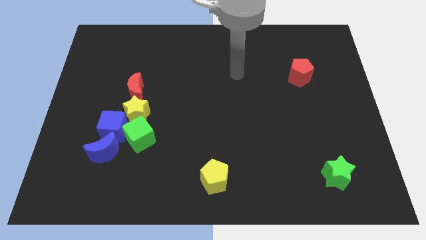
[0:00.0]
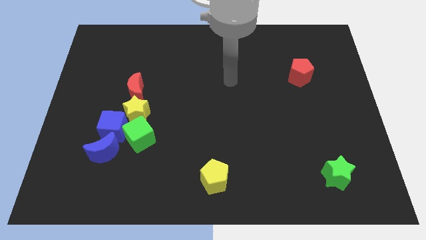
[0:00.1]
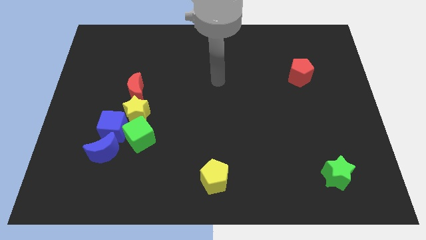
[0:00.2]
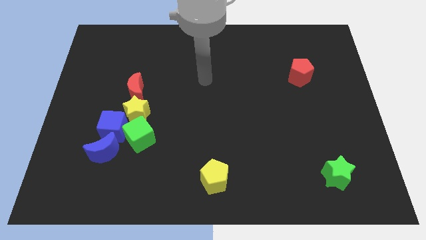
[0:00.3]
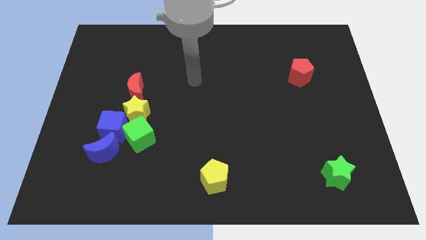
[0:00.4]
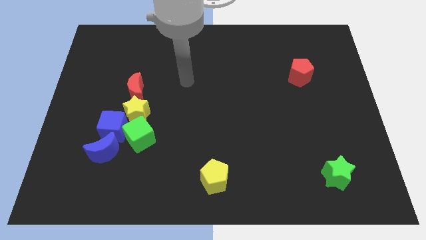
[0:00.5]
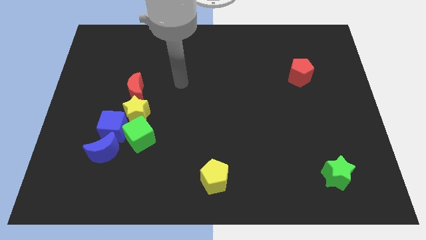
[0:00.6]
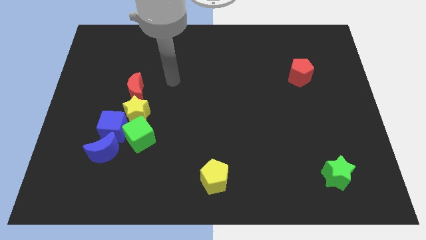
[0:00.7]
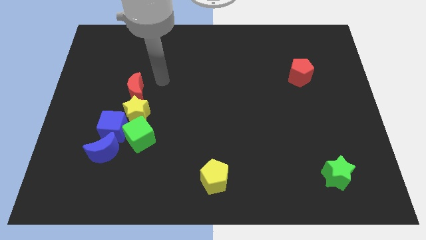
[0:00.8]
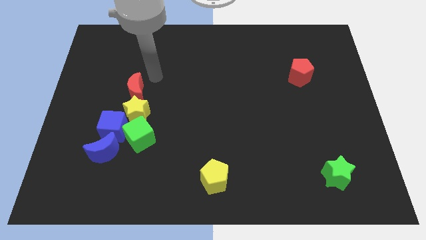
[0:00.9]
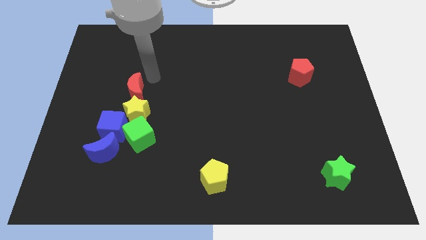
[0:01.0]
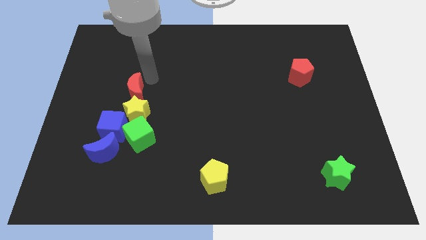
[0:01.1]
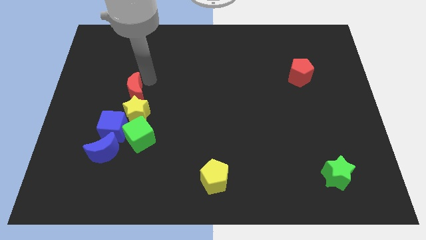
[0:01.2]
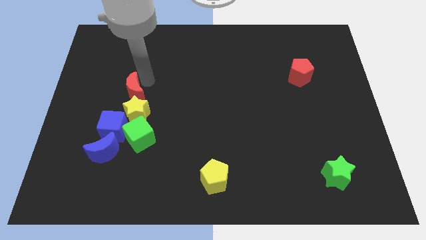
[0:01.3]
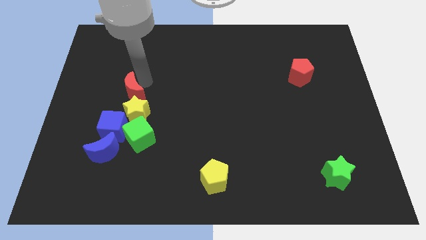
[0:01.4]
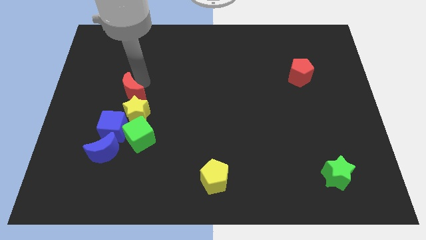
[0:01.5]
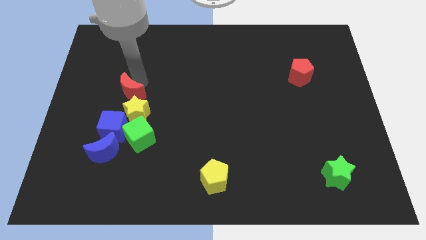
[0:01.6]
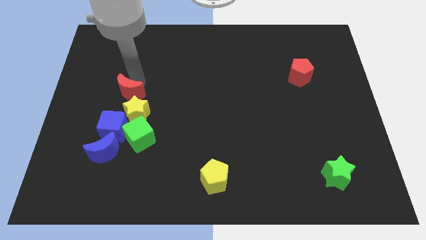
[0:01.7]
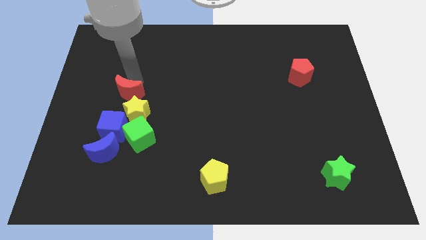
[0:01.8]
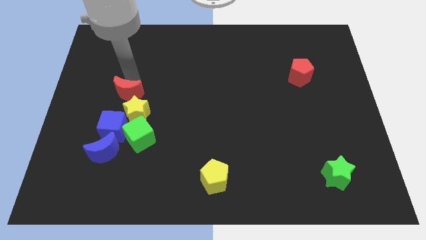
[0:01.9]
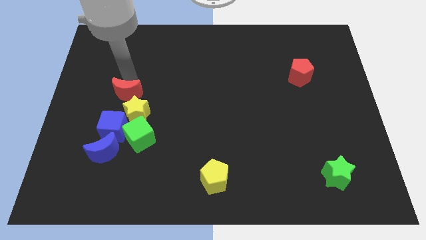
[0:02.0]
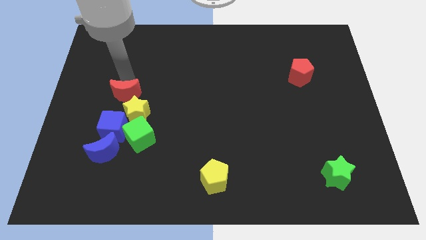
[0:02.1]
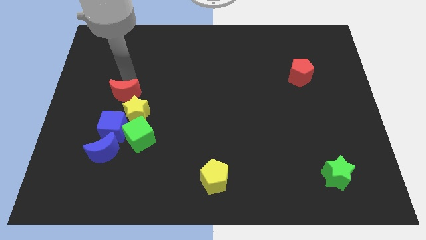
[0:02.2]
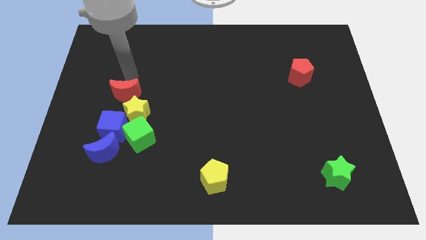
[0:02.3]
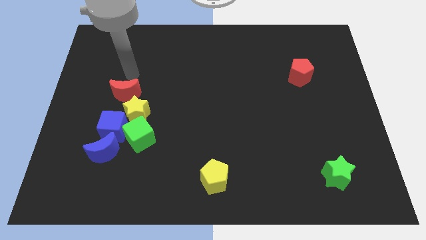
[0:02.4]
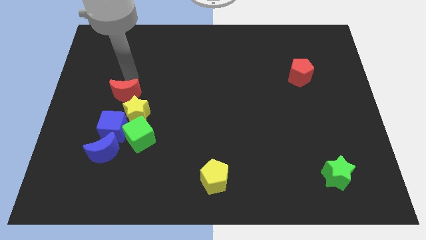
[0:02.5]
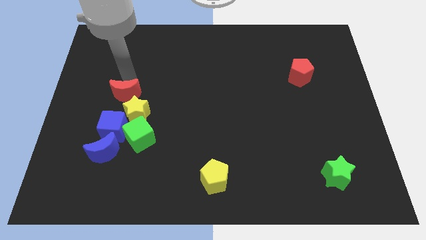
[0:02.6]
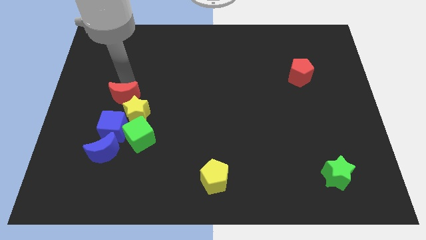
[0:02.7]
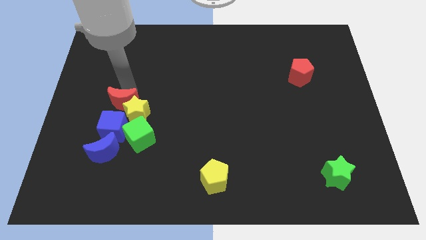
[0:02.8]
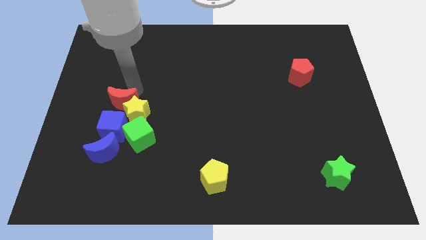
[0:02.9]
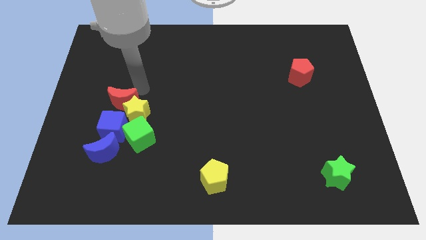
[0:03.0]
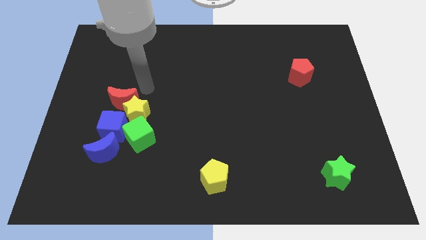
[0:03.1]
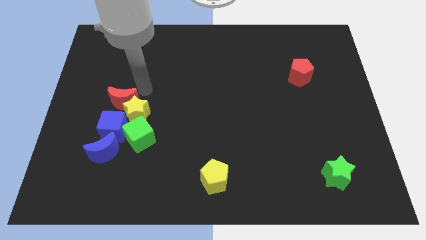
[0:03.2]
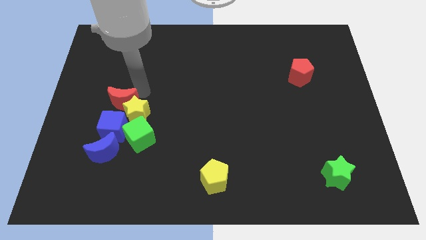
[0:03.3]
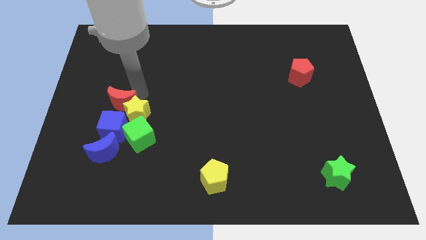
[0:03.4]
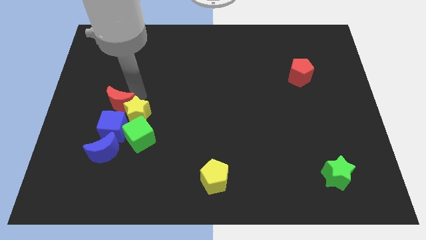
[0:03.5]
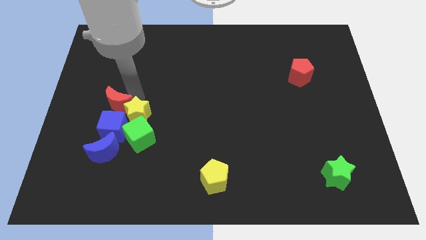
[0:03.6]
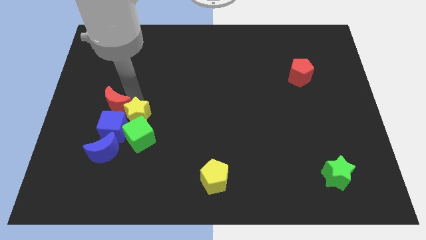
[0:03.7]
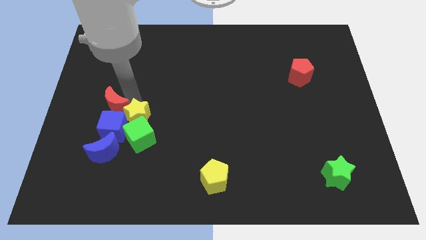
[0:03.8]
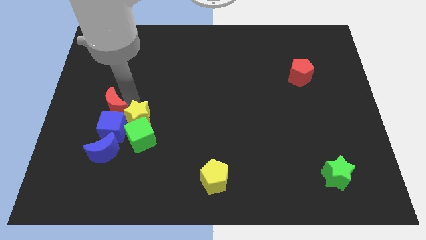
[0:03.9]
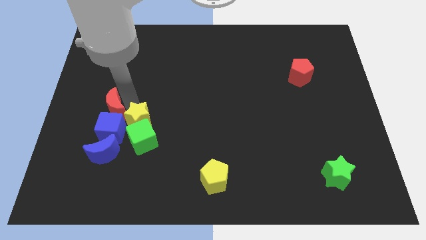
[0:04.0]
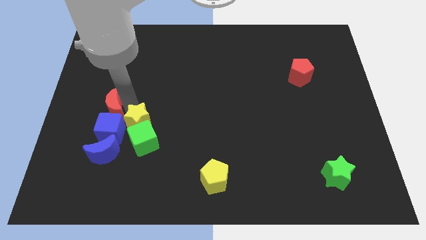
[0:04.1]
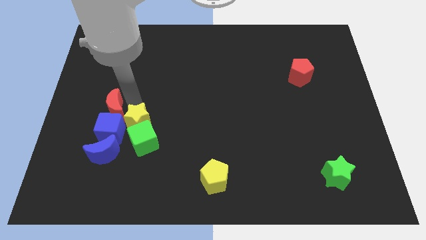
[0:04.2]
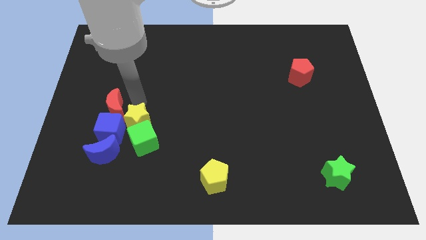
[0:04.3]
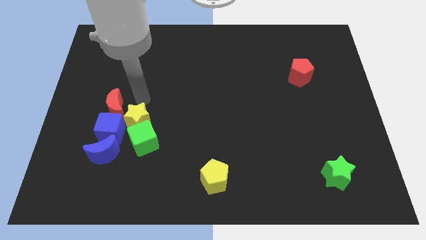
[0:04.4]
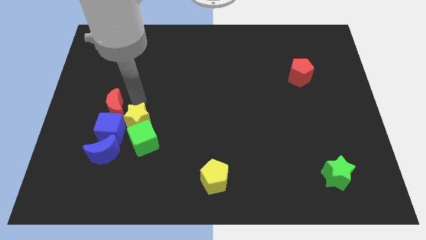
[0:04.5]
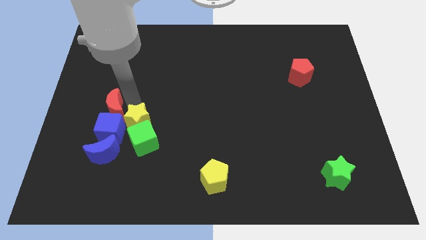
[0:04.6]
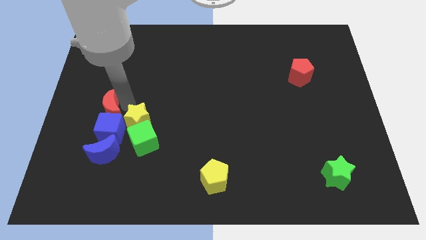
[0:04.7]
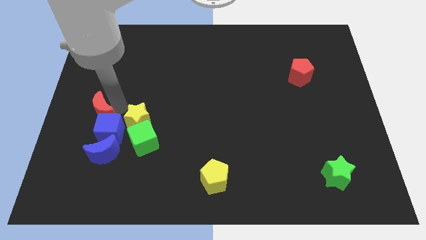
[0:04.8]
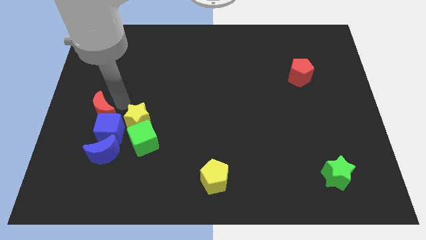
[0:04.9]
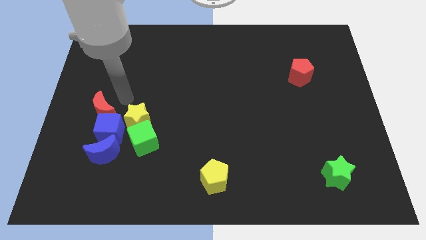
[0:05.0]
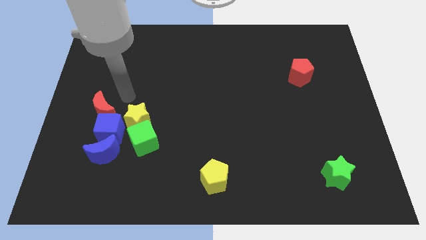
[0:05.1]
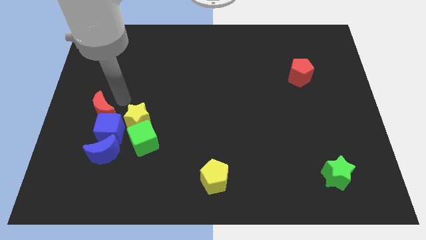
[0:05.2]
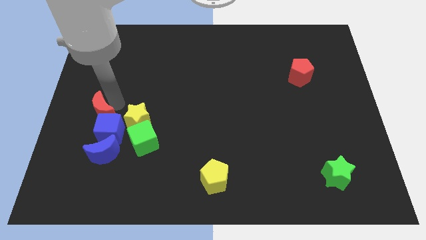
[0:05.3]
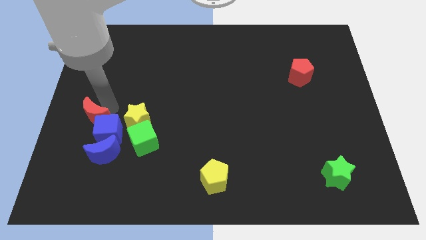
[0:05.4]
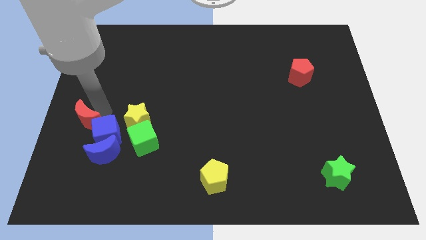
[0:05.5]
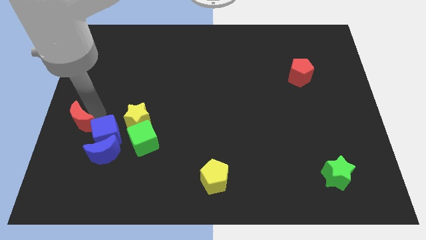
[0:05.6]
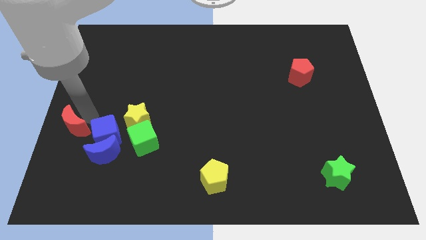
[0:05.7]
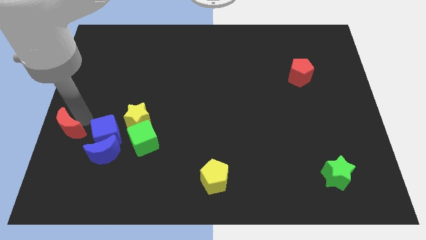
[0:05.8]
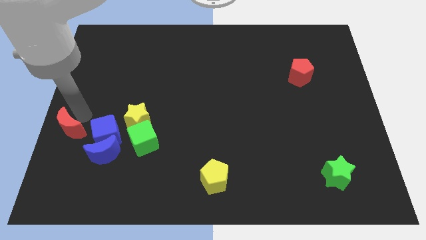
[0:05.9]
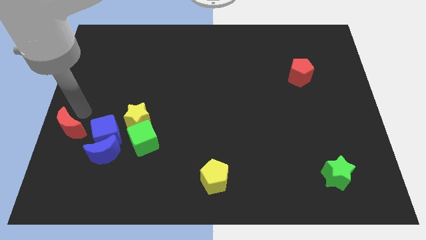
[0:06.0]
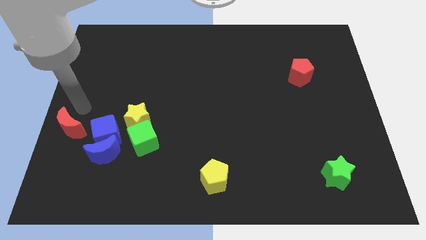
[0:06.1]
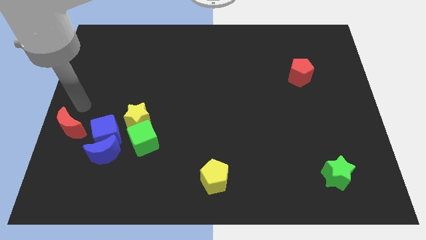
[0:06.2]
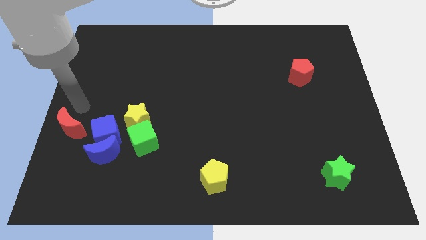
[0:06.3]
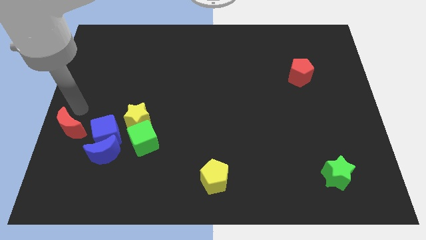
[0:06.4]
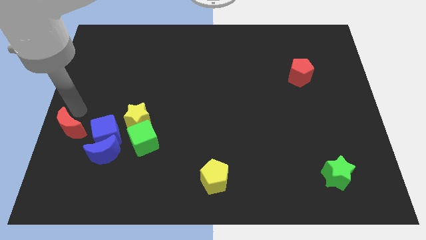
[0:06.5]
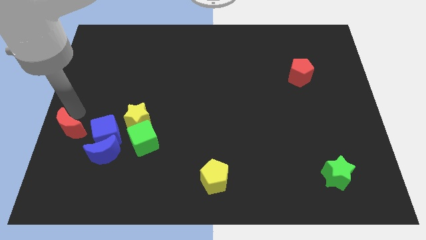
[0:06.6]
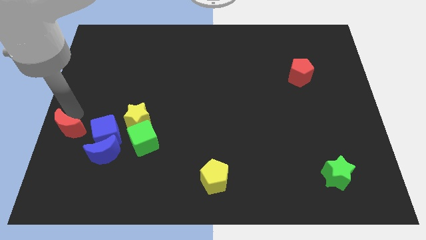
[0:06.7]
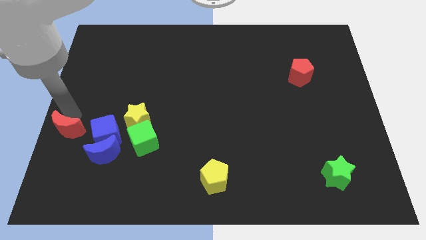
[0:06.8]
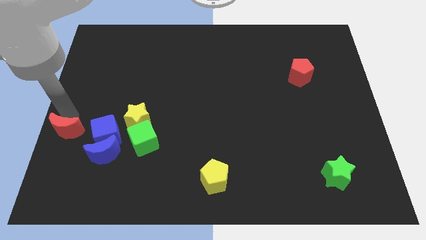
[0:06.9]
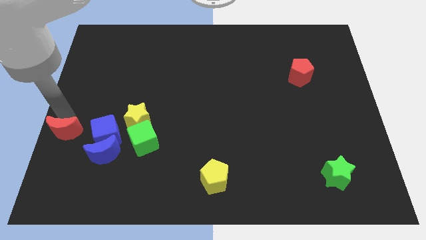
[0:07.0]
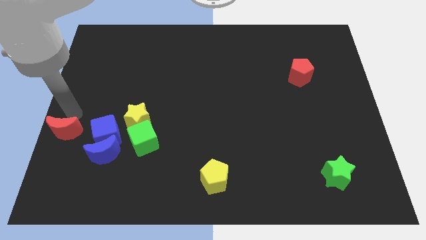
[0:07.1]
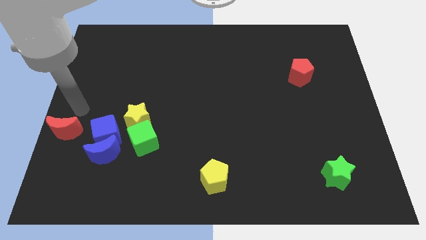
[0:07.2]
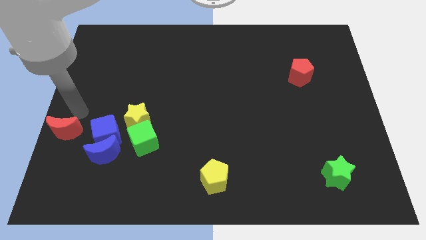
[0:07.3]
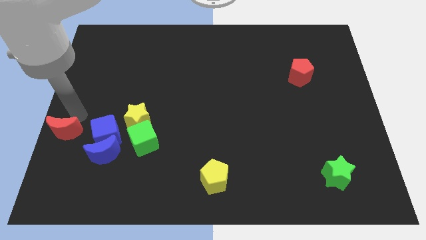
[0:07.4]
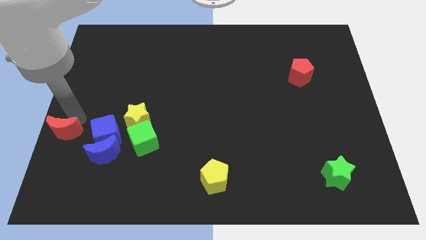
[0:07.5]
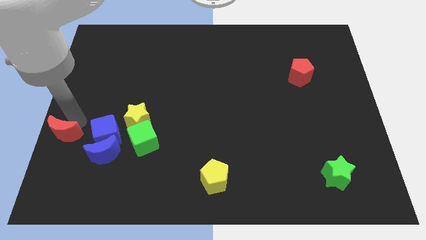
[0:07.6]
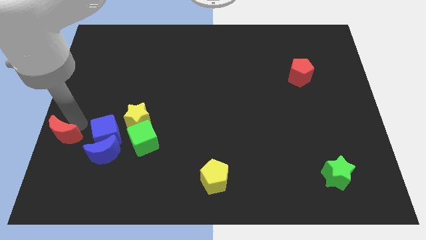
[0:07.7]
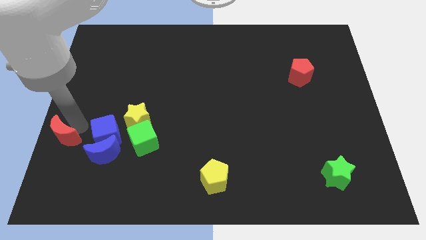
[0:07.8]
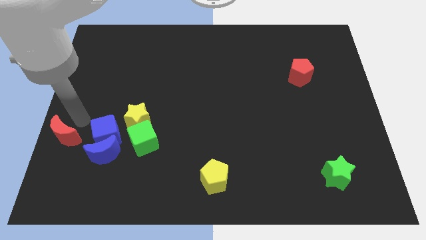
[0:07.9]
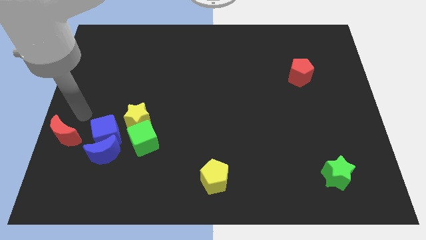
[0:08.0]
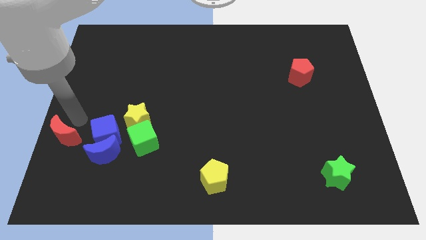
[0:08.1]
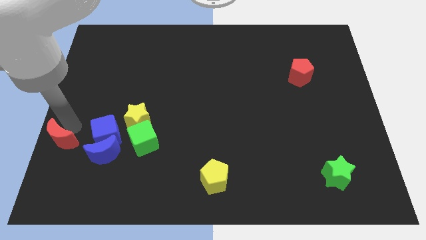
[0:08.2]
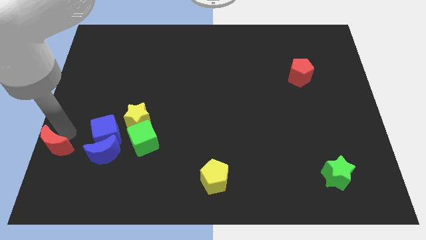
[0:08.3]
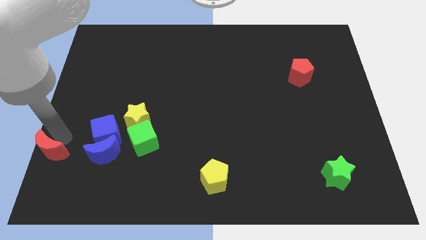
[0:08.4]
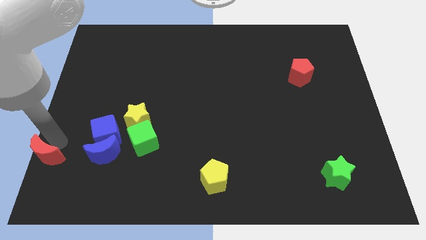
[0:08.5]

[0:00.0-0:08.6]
put the red moon to the bottom left corner
